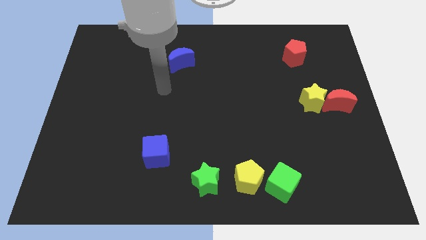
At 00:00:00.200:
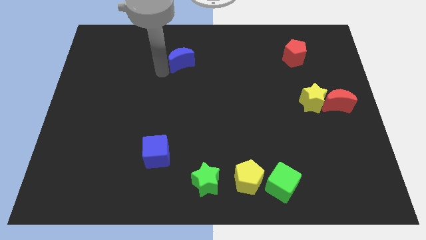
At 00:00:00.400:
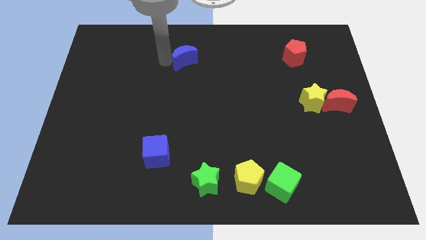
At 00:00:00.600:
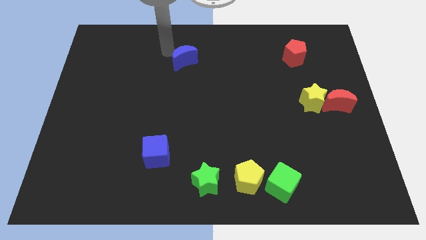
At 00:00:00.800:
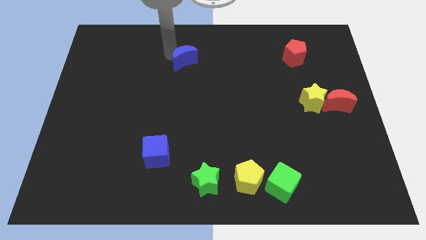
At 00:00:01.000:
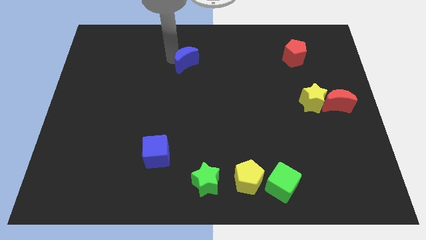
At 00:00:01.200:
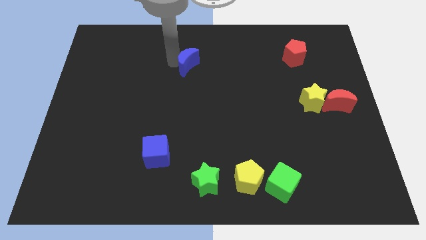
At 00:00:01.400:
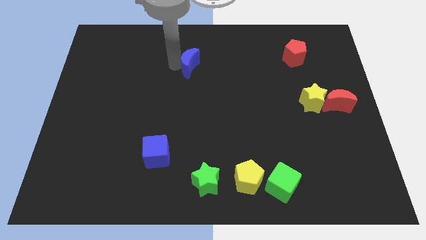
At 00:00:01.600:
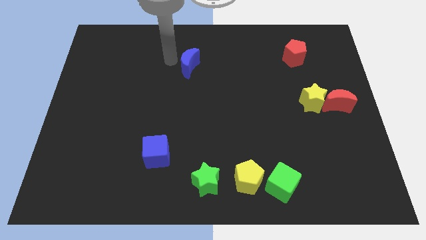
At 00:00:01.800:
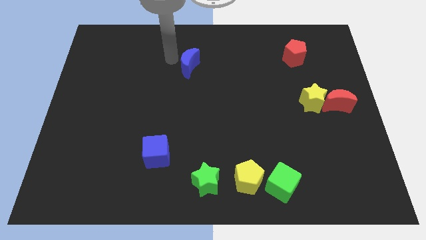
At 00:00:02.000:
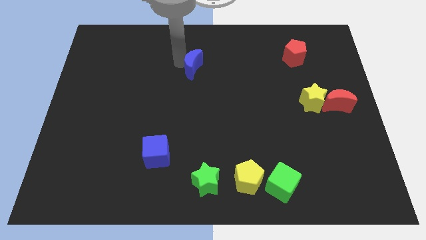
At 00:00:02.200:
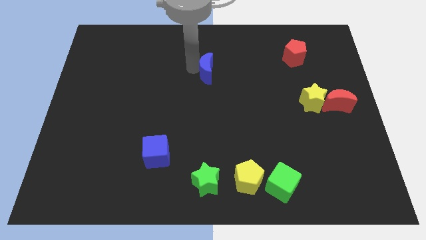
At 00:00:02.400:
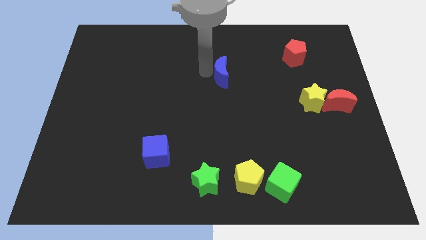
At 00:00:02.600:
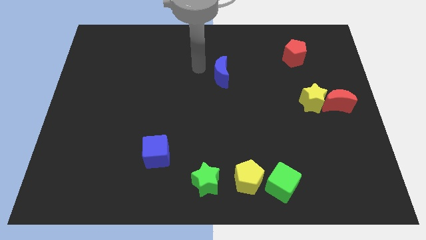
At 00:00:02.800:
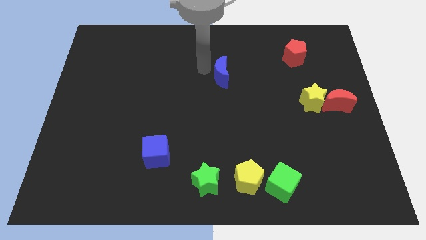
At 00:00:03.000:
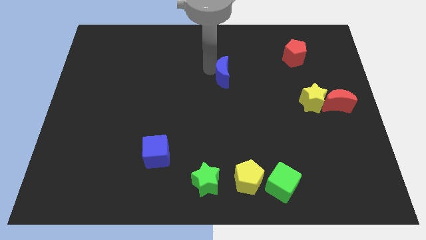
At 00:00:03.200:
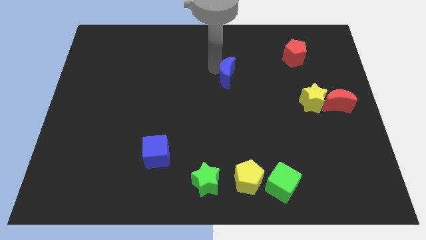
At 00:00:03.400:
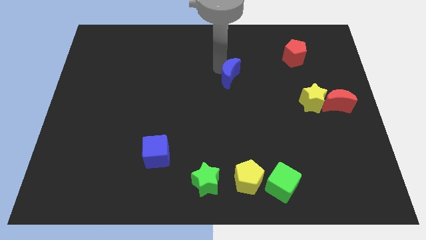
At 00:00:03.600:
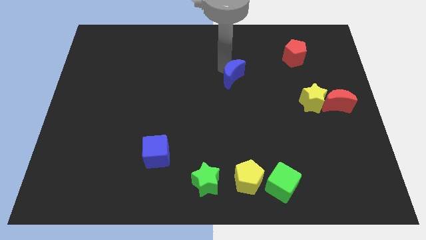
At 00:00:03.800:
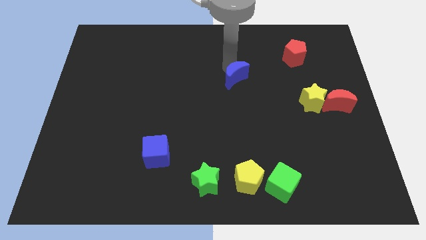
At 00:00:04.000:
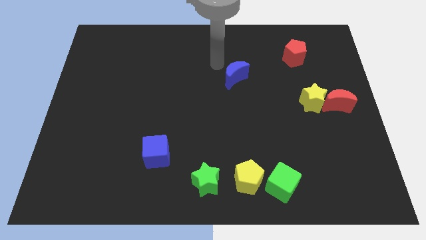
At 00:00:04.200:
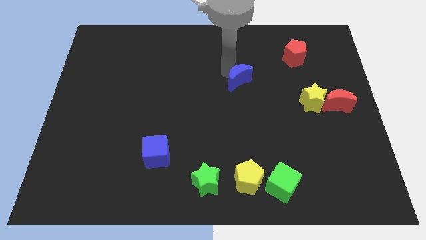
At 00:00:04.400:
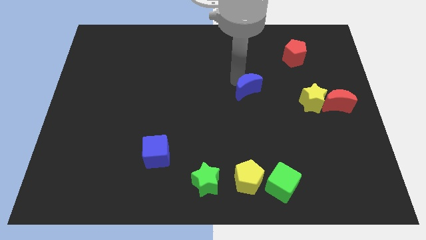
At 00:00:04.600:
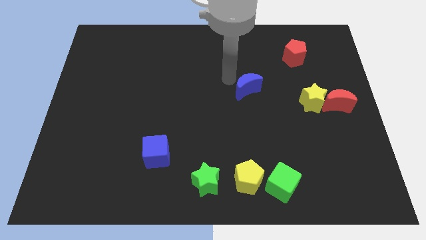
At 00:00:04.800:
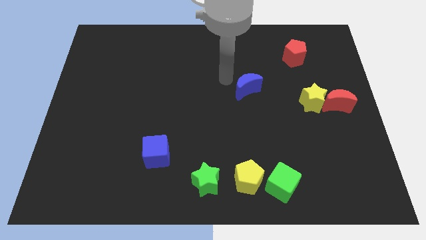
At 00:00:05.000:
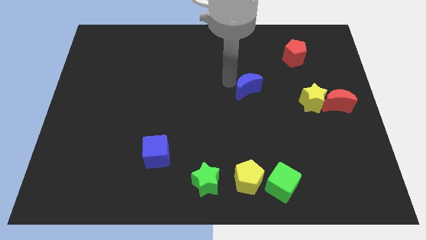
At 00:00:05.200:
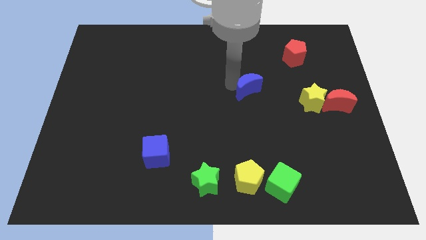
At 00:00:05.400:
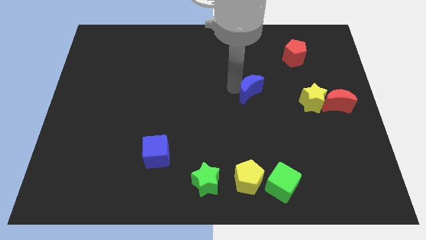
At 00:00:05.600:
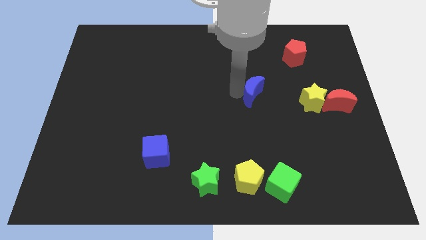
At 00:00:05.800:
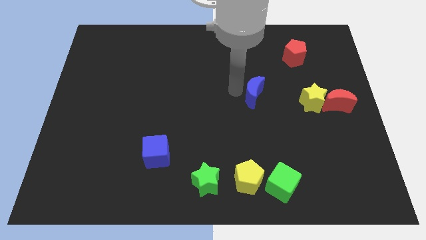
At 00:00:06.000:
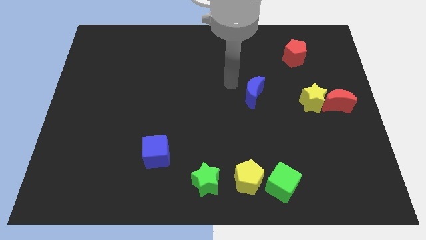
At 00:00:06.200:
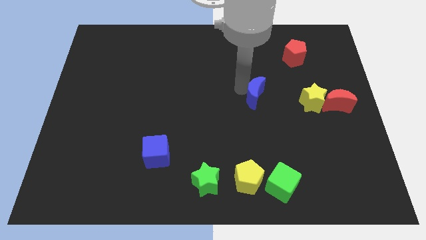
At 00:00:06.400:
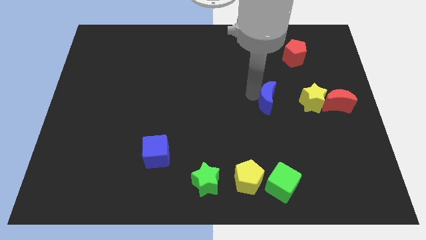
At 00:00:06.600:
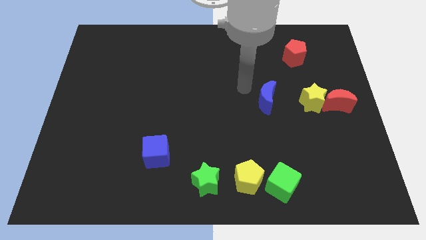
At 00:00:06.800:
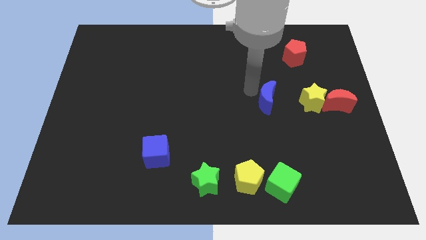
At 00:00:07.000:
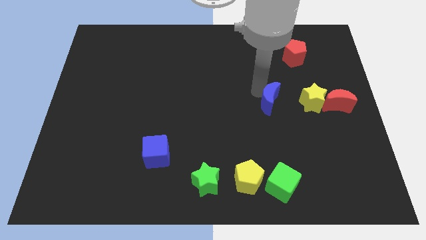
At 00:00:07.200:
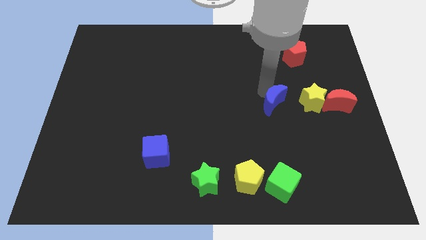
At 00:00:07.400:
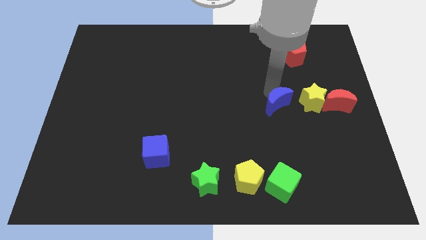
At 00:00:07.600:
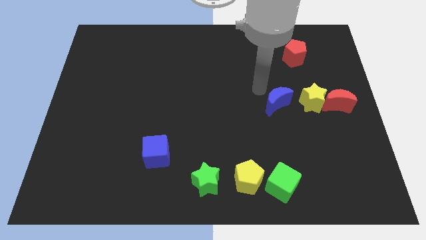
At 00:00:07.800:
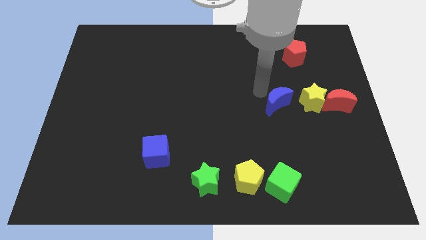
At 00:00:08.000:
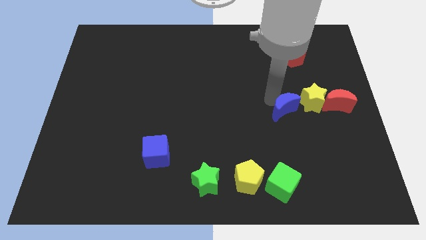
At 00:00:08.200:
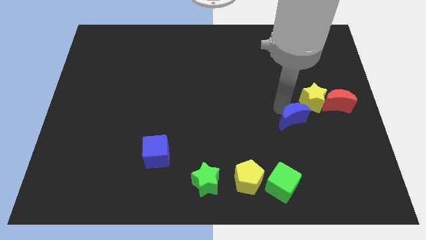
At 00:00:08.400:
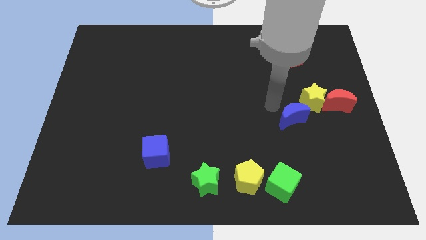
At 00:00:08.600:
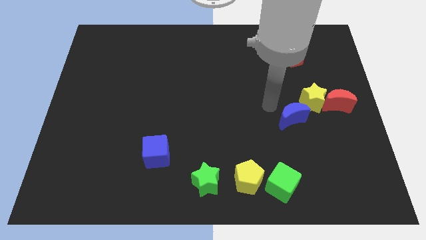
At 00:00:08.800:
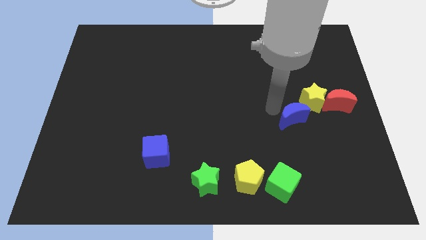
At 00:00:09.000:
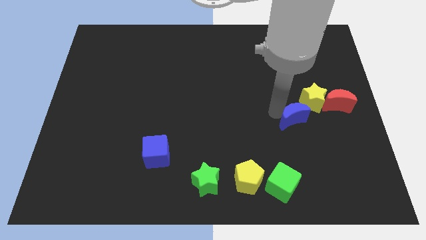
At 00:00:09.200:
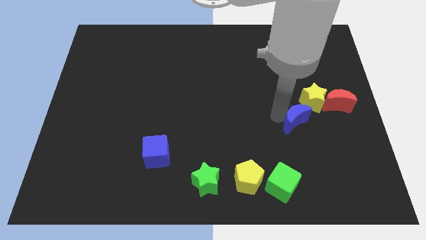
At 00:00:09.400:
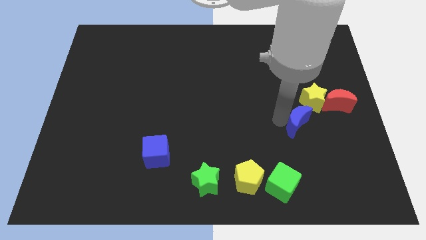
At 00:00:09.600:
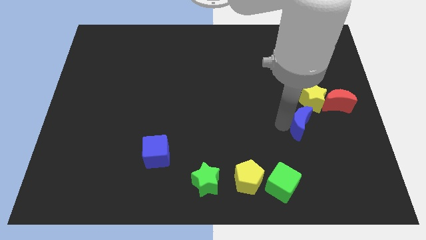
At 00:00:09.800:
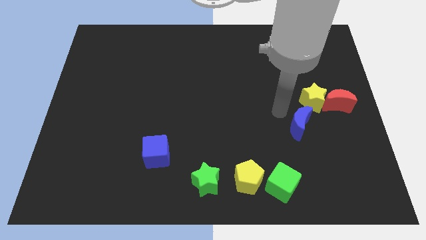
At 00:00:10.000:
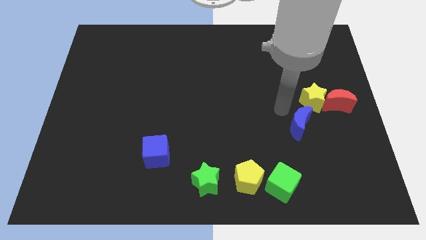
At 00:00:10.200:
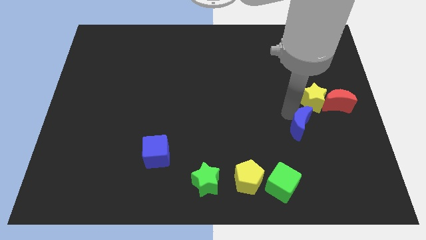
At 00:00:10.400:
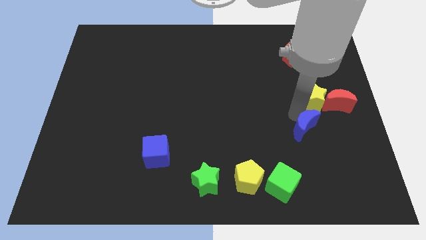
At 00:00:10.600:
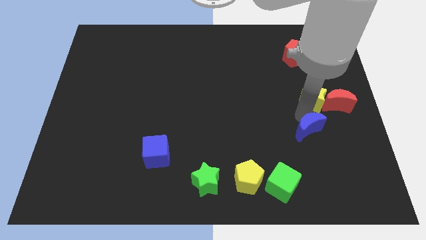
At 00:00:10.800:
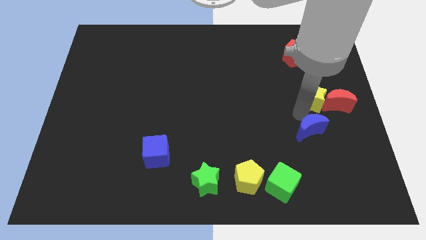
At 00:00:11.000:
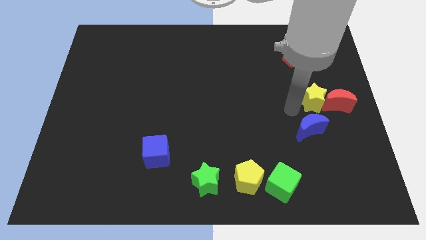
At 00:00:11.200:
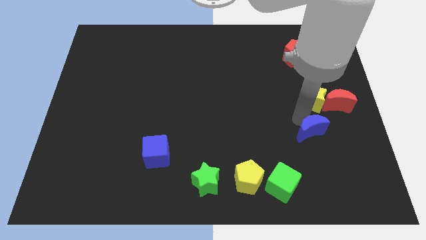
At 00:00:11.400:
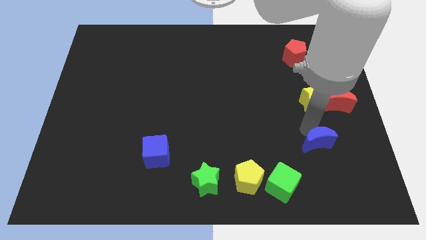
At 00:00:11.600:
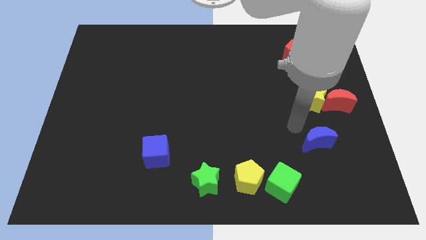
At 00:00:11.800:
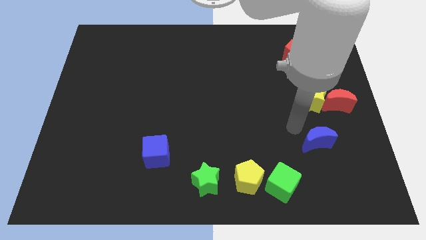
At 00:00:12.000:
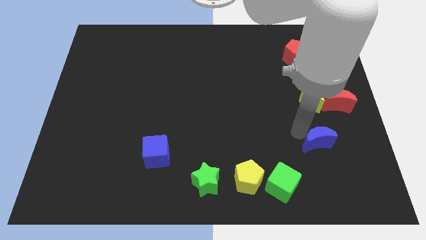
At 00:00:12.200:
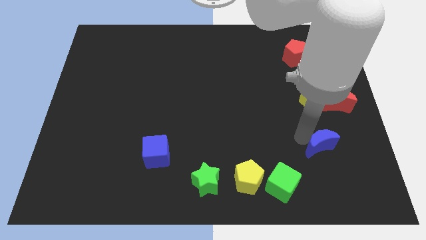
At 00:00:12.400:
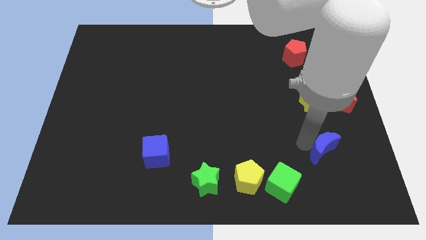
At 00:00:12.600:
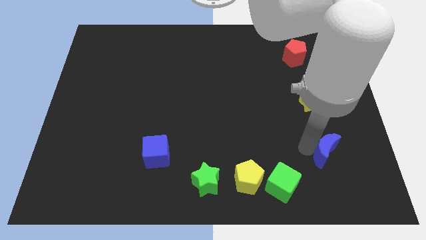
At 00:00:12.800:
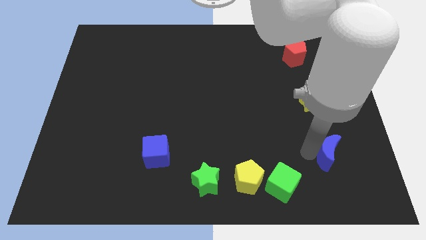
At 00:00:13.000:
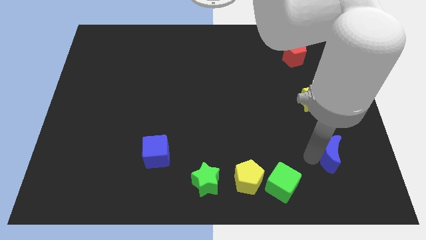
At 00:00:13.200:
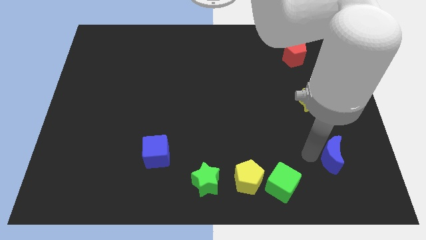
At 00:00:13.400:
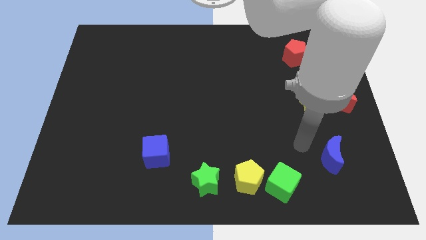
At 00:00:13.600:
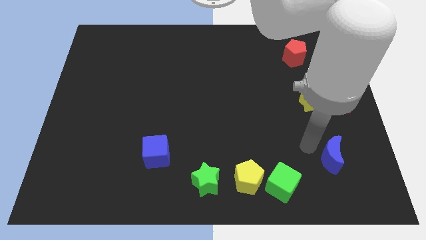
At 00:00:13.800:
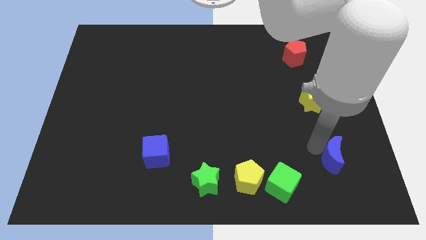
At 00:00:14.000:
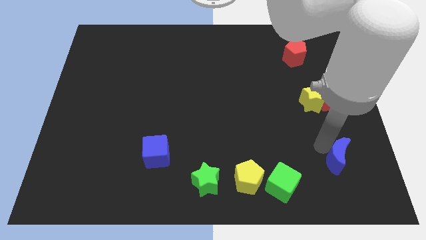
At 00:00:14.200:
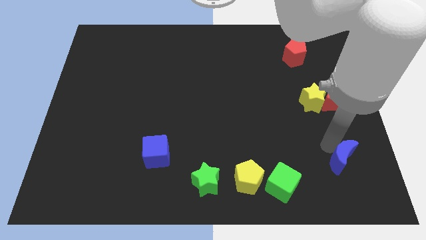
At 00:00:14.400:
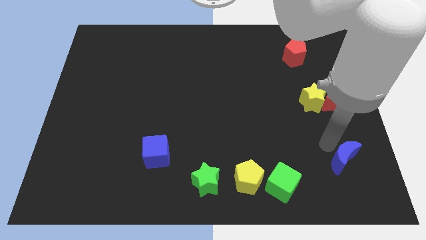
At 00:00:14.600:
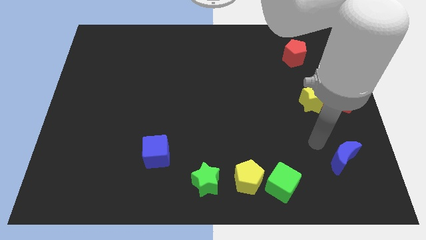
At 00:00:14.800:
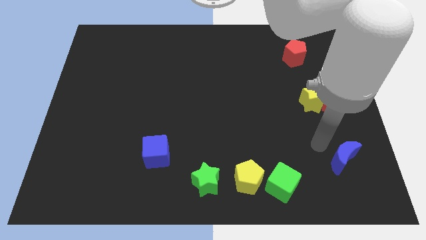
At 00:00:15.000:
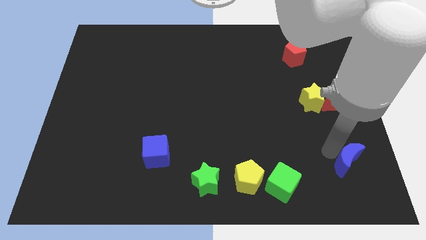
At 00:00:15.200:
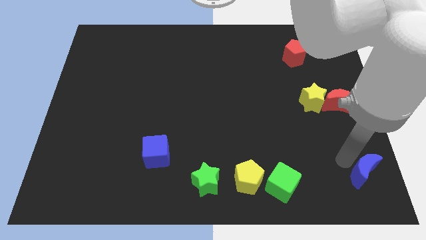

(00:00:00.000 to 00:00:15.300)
put the blue moon to the lower right corner
